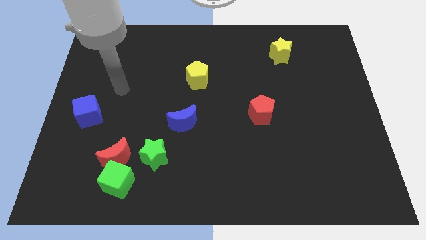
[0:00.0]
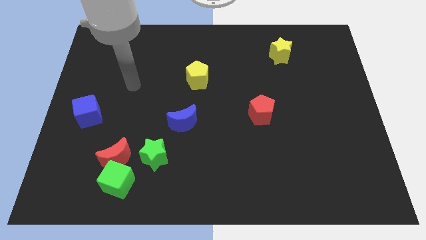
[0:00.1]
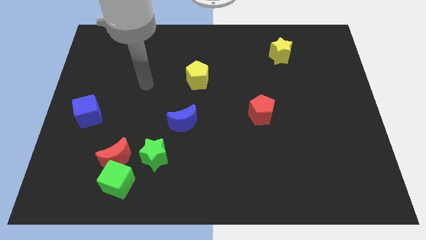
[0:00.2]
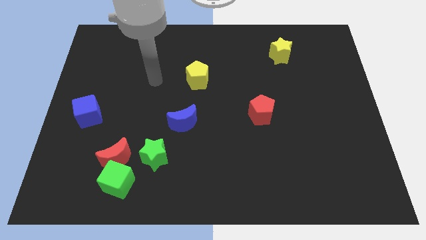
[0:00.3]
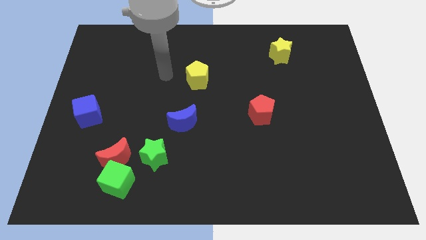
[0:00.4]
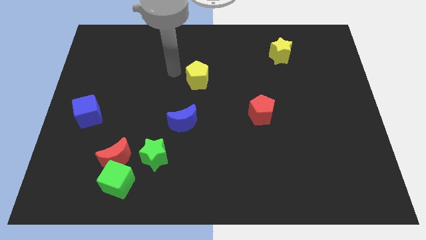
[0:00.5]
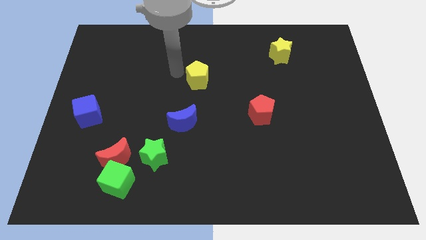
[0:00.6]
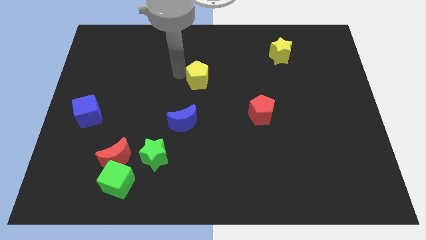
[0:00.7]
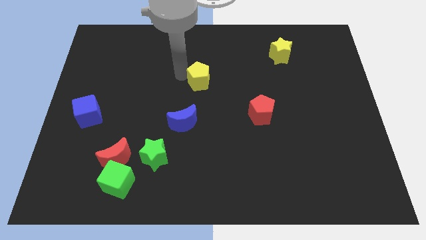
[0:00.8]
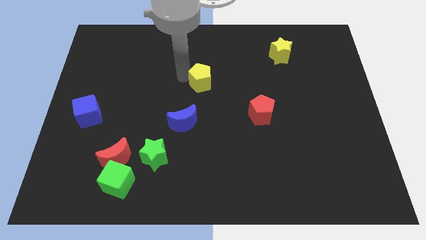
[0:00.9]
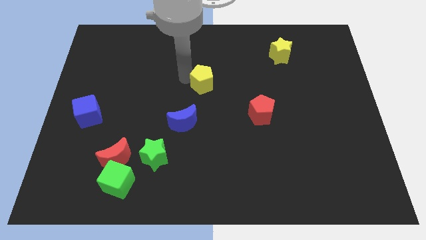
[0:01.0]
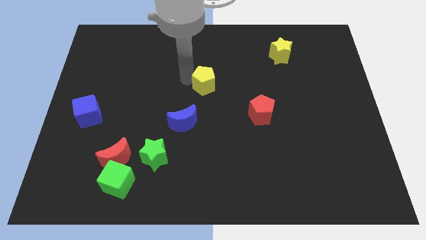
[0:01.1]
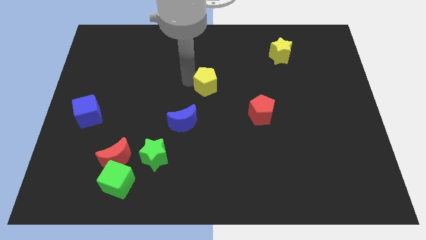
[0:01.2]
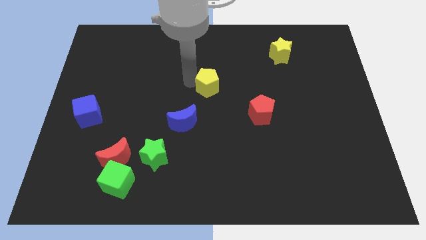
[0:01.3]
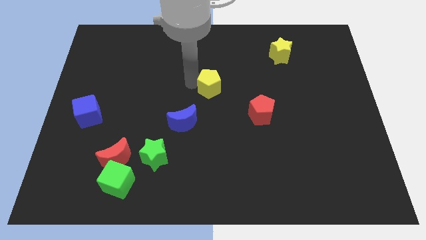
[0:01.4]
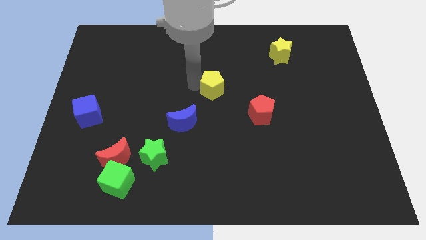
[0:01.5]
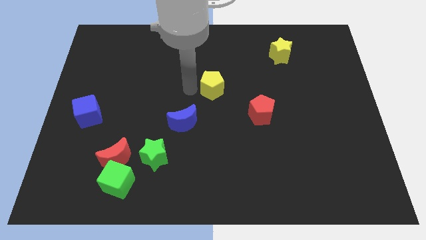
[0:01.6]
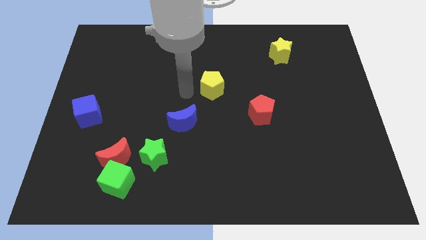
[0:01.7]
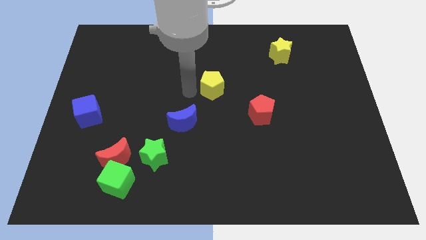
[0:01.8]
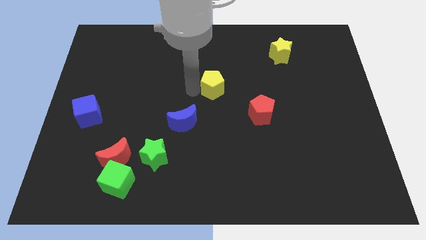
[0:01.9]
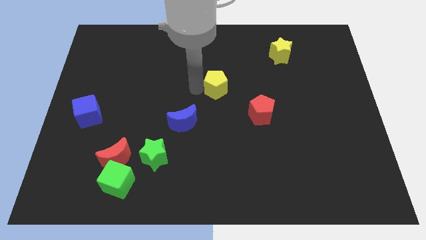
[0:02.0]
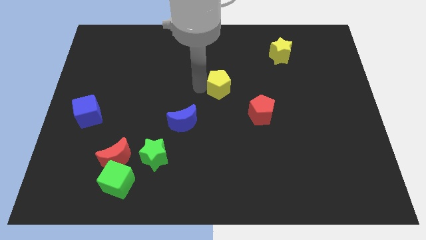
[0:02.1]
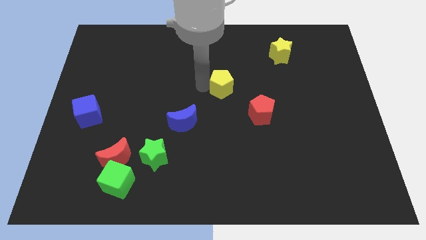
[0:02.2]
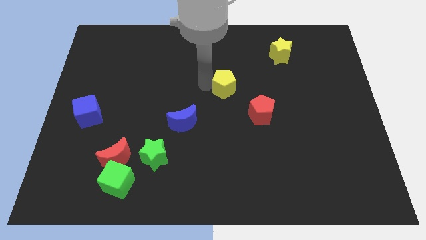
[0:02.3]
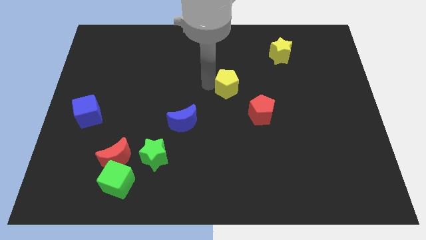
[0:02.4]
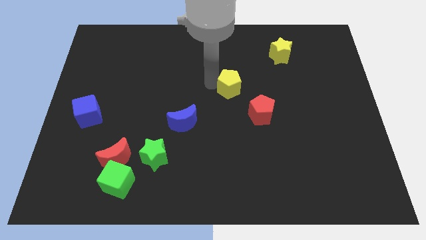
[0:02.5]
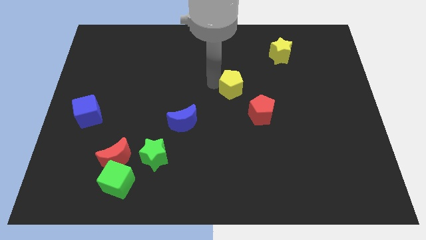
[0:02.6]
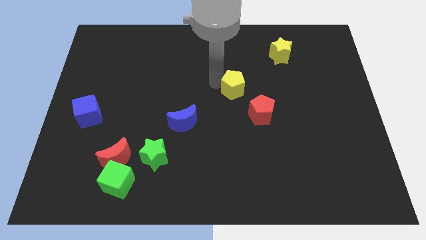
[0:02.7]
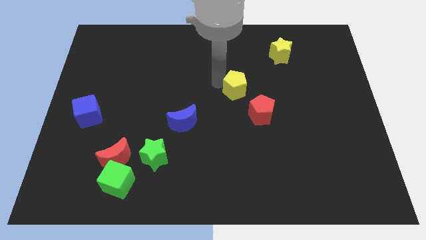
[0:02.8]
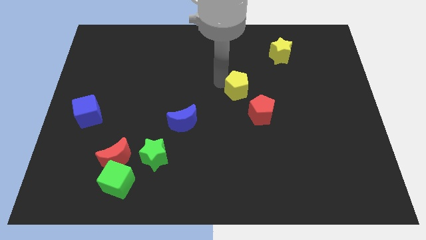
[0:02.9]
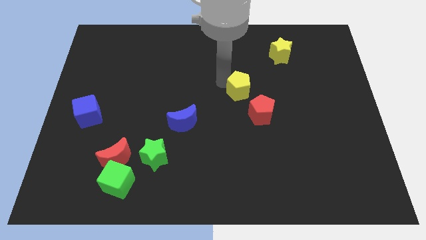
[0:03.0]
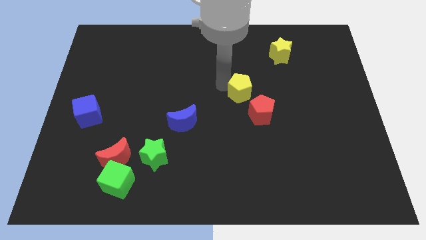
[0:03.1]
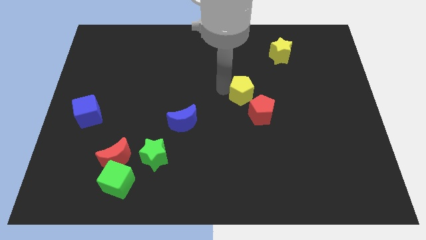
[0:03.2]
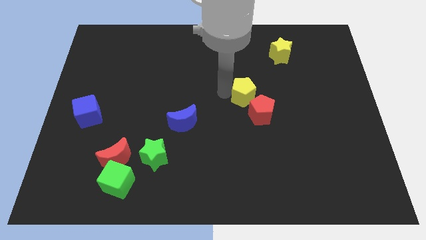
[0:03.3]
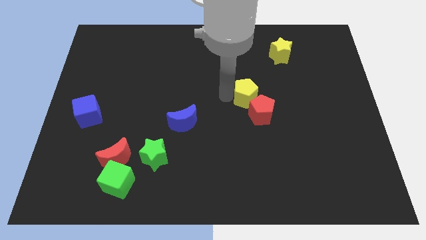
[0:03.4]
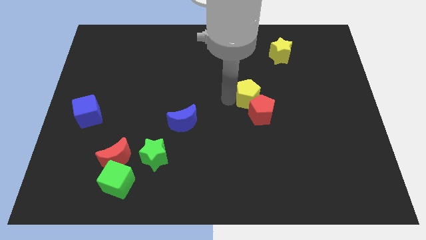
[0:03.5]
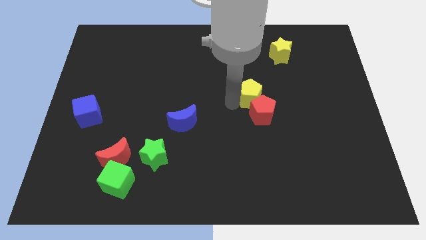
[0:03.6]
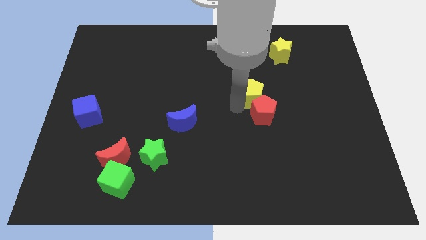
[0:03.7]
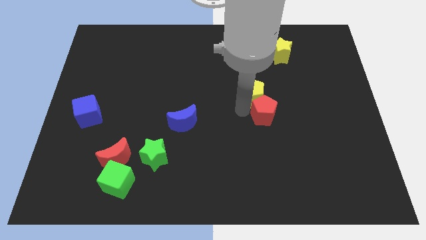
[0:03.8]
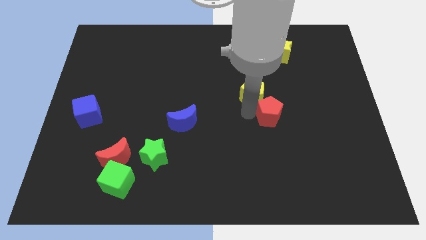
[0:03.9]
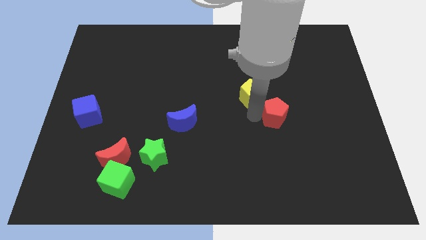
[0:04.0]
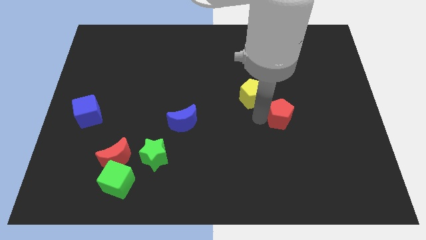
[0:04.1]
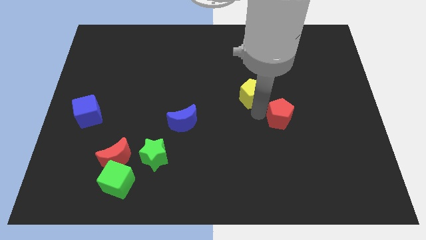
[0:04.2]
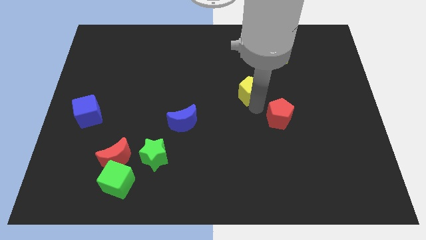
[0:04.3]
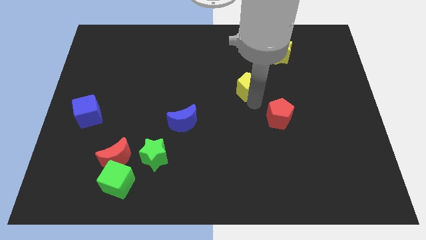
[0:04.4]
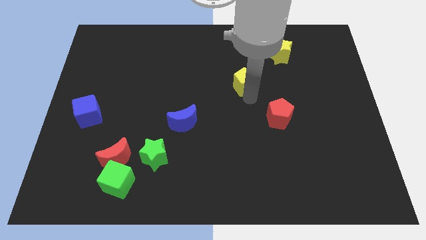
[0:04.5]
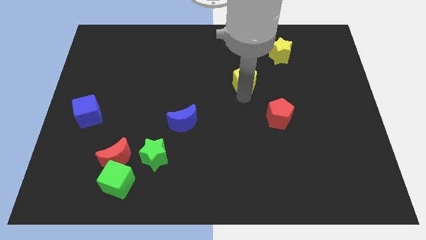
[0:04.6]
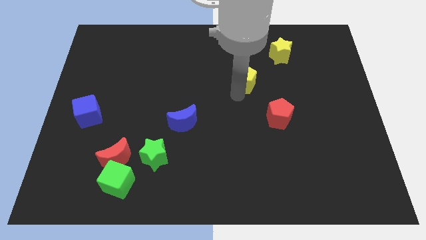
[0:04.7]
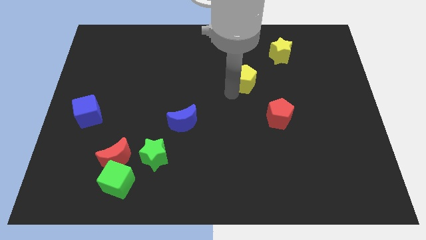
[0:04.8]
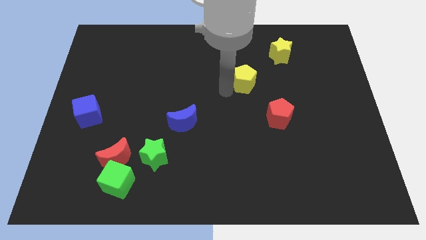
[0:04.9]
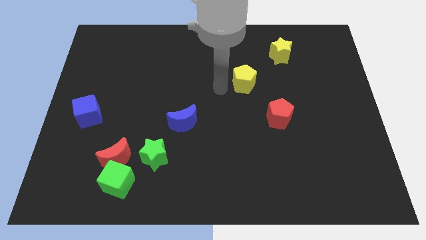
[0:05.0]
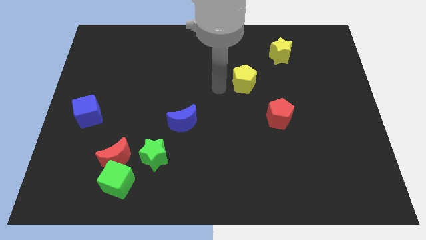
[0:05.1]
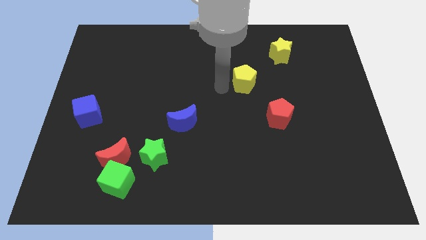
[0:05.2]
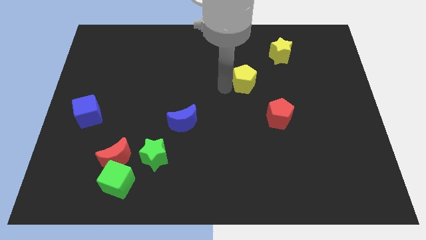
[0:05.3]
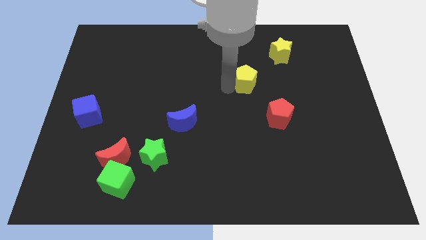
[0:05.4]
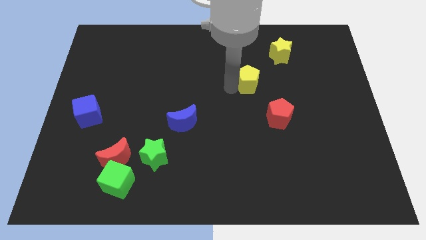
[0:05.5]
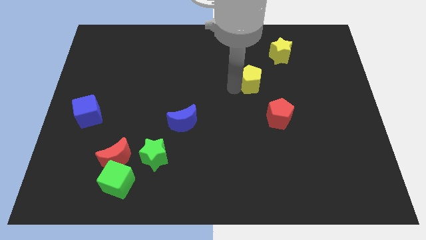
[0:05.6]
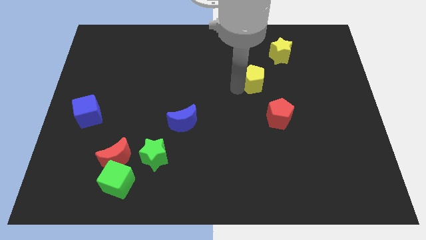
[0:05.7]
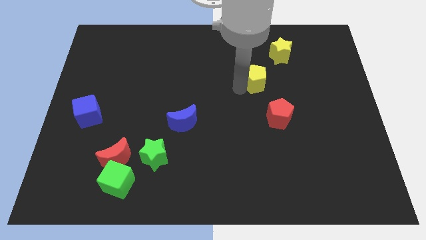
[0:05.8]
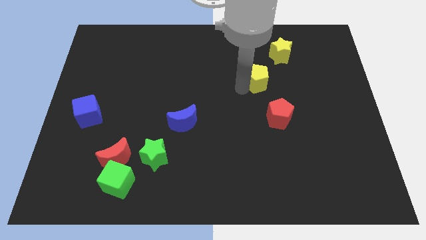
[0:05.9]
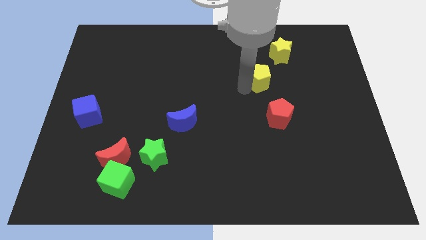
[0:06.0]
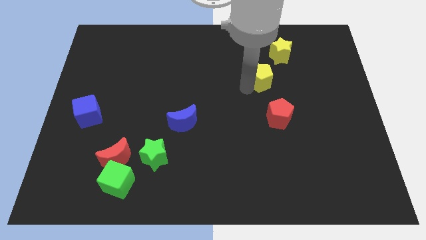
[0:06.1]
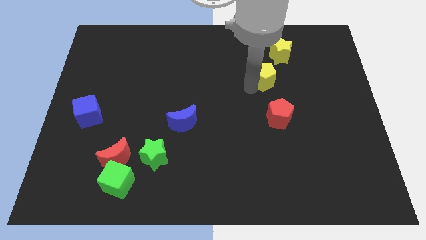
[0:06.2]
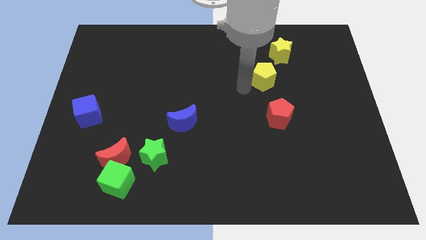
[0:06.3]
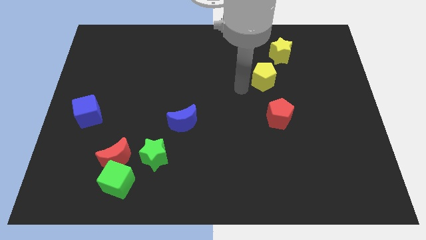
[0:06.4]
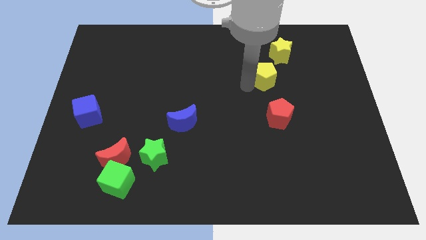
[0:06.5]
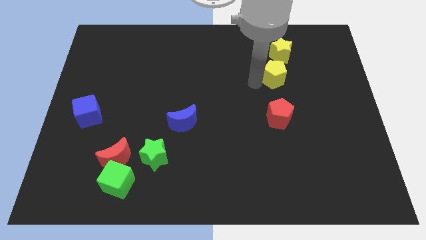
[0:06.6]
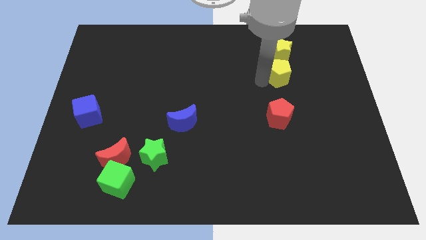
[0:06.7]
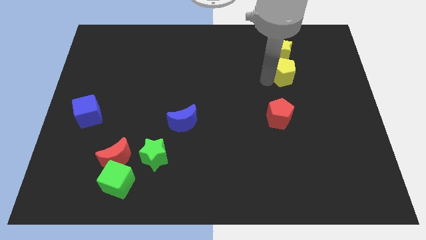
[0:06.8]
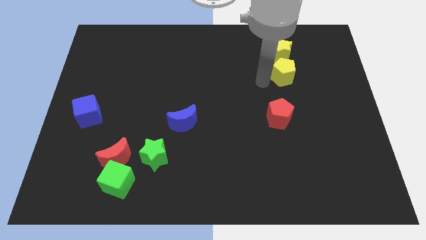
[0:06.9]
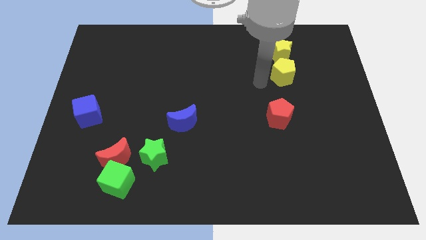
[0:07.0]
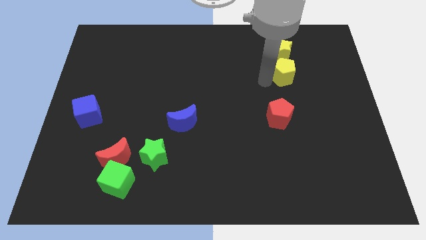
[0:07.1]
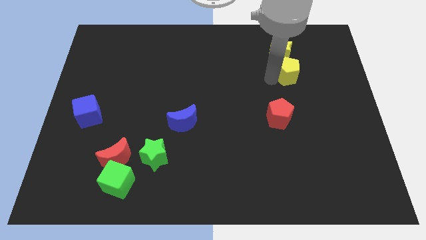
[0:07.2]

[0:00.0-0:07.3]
put the yellow pentagon diagonally down and to the right of the yellow star
